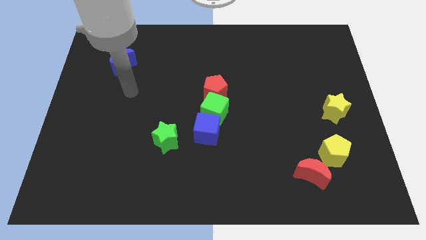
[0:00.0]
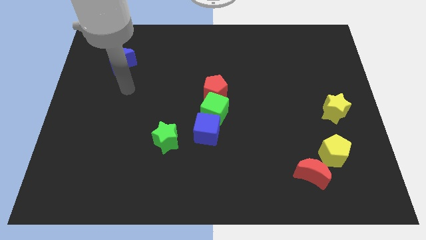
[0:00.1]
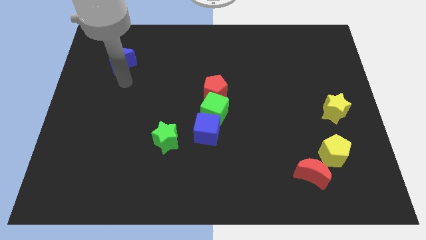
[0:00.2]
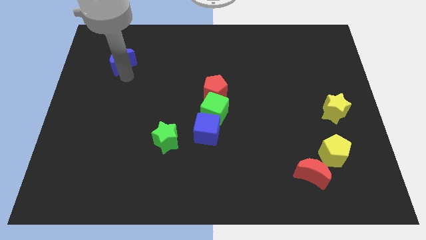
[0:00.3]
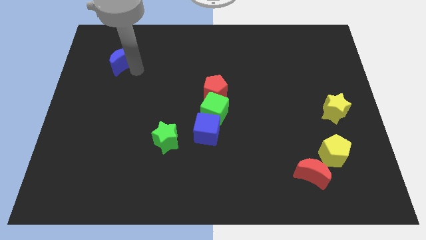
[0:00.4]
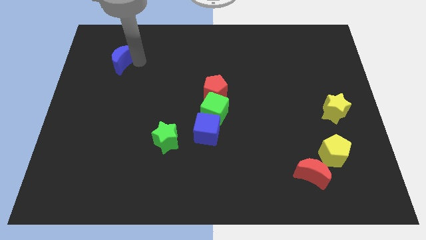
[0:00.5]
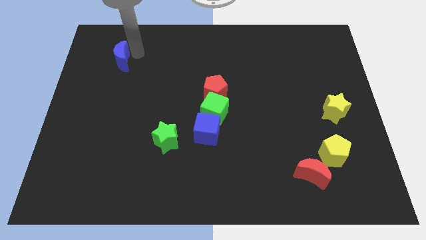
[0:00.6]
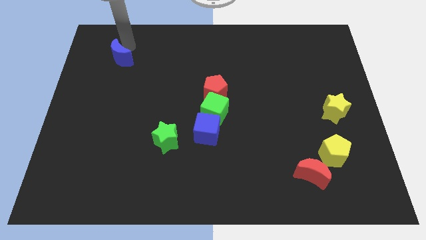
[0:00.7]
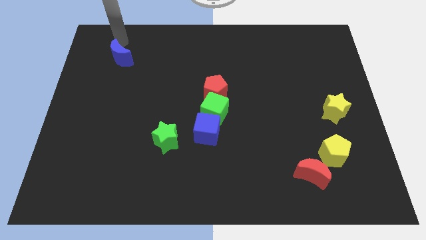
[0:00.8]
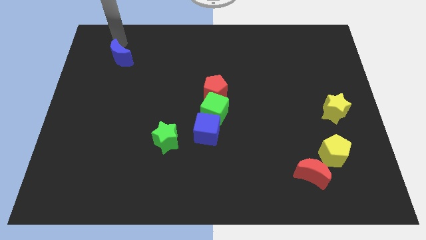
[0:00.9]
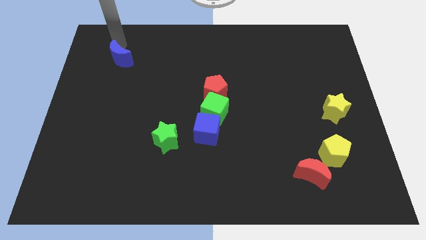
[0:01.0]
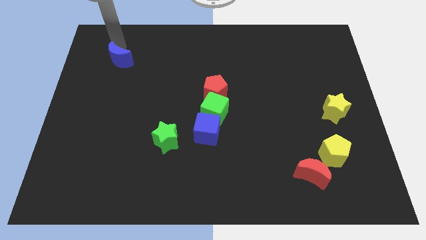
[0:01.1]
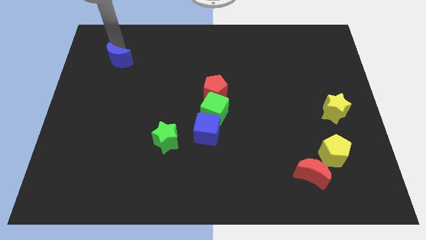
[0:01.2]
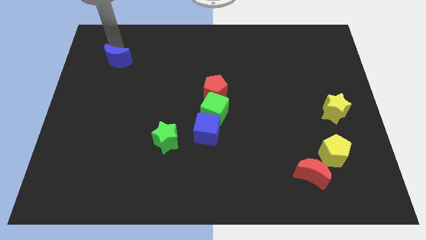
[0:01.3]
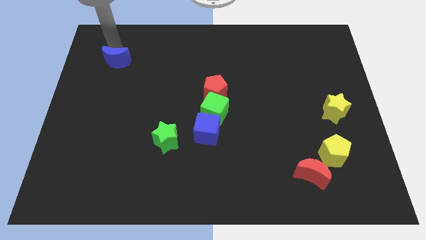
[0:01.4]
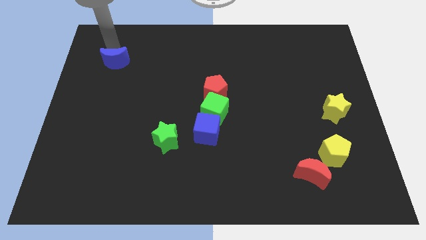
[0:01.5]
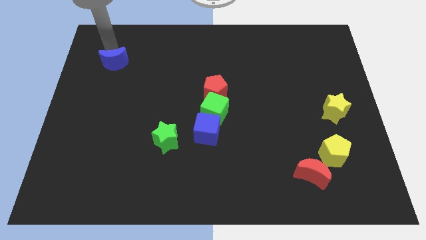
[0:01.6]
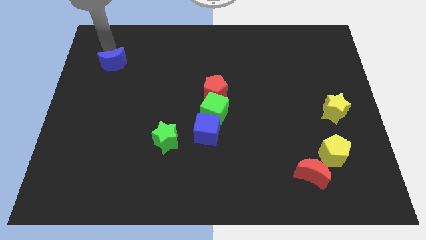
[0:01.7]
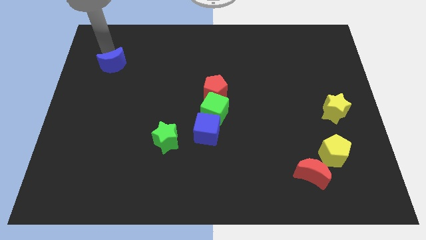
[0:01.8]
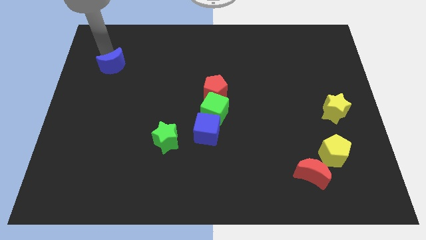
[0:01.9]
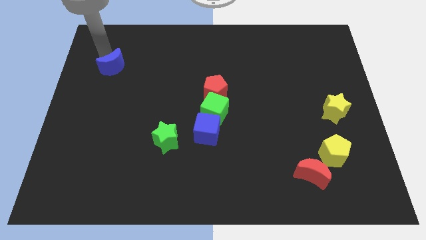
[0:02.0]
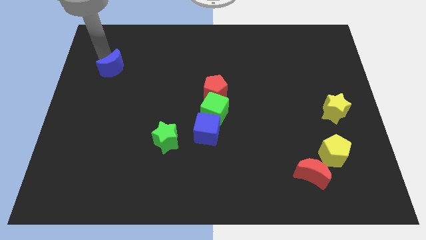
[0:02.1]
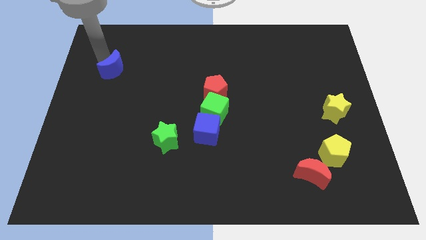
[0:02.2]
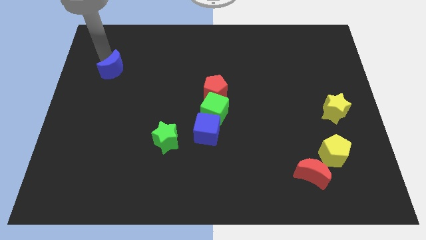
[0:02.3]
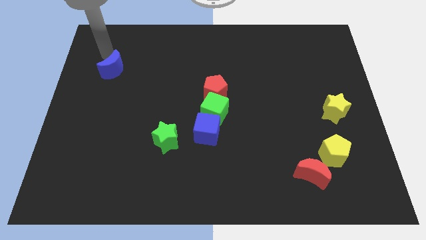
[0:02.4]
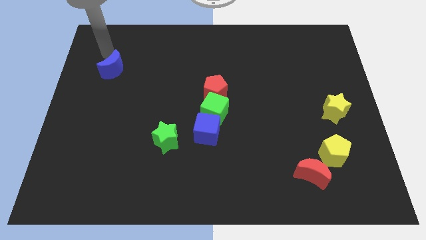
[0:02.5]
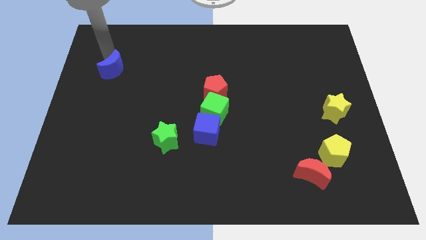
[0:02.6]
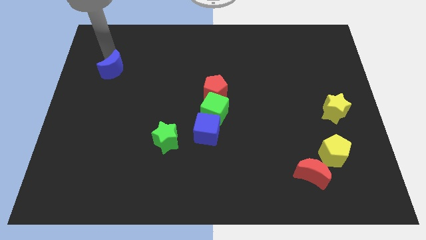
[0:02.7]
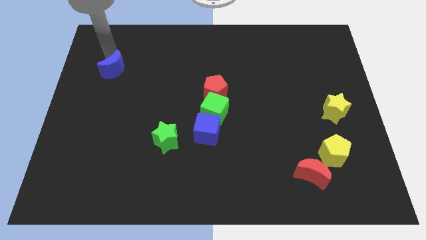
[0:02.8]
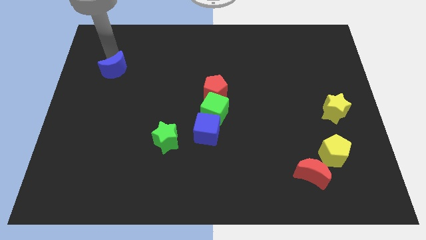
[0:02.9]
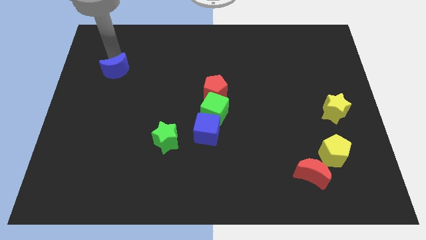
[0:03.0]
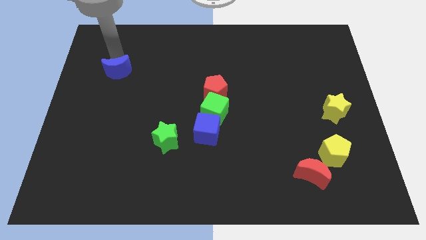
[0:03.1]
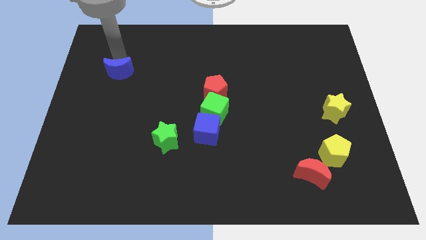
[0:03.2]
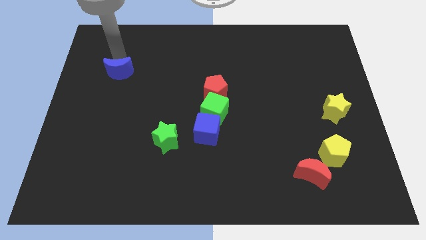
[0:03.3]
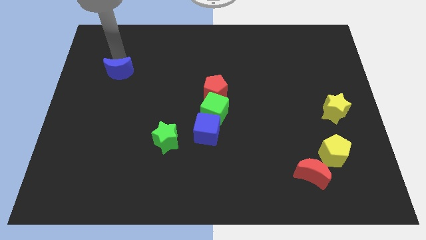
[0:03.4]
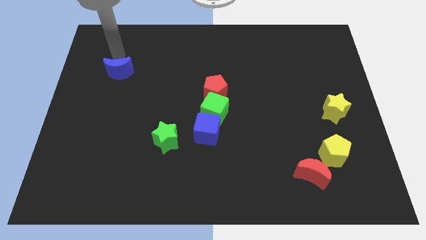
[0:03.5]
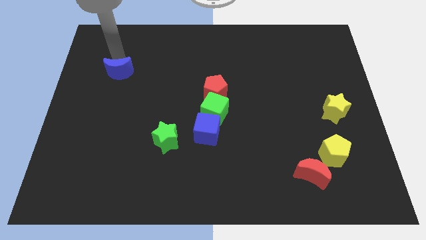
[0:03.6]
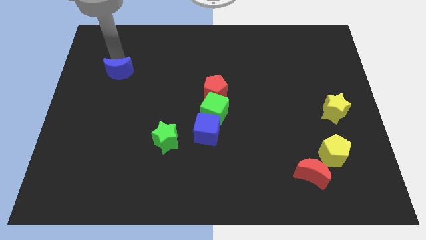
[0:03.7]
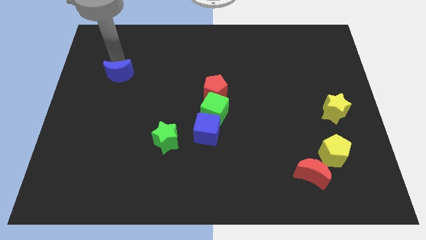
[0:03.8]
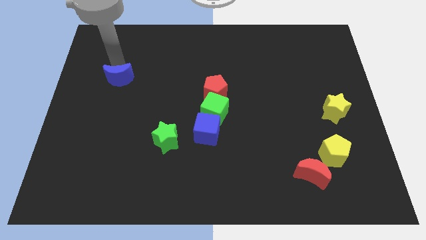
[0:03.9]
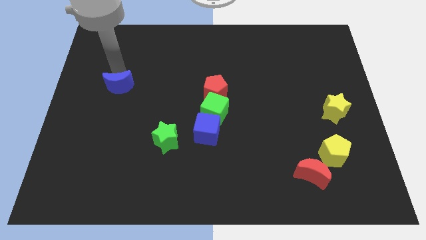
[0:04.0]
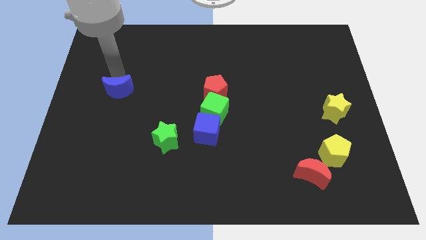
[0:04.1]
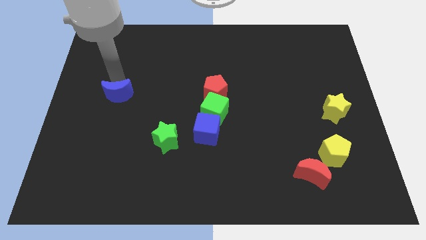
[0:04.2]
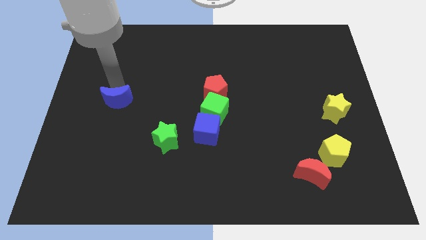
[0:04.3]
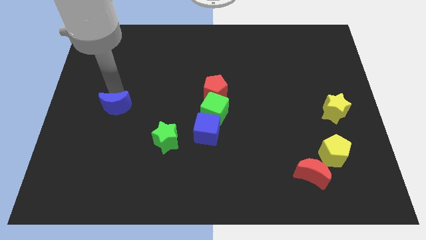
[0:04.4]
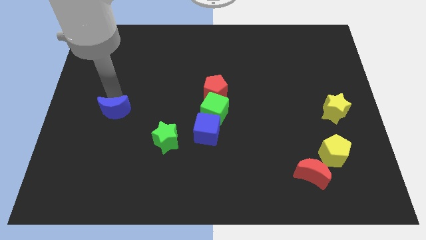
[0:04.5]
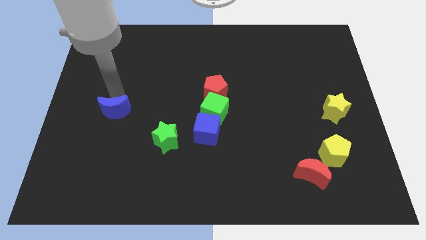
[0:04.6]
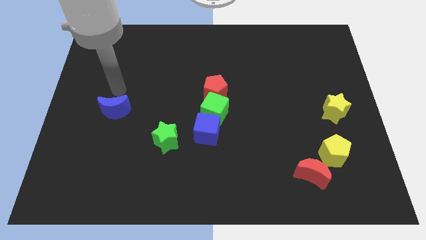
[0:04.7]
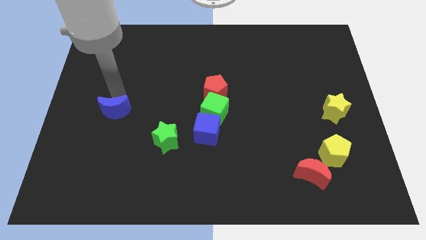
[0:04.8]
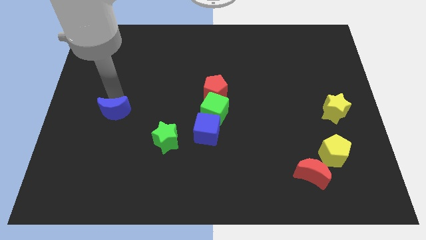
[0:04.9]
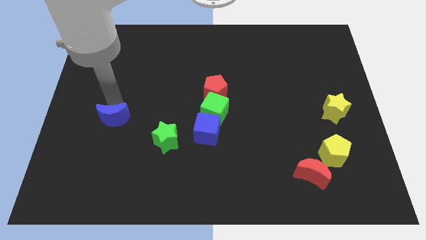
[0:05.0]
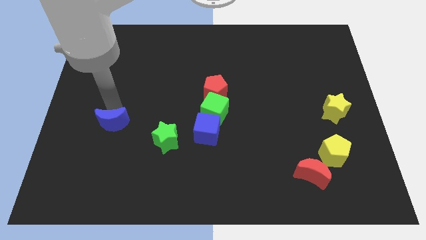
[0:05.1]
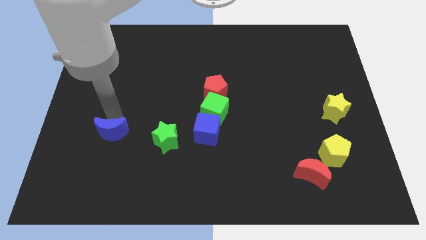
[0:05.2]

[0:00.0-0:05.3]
slide the blue moon downwards

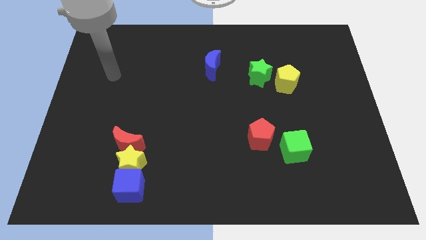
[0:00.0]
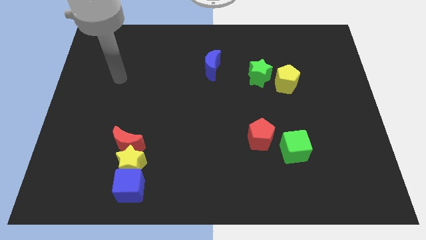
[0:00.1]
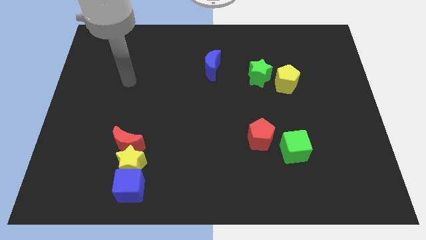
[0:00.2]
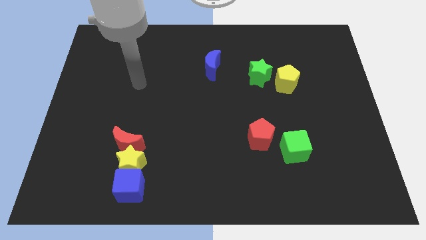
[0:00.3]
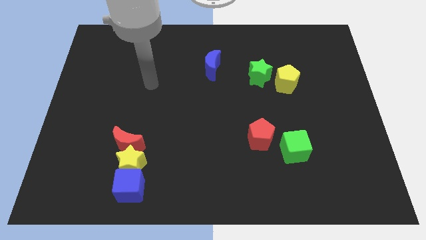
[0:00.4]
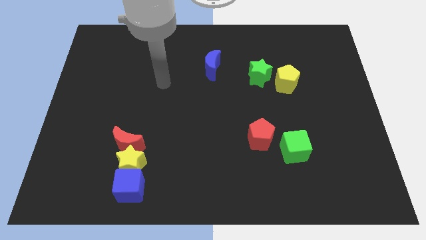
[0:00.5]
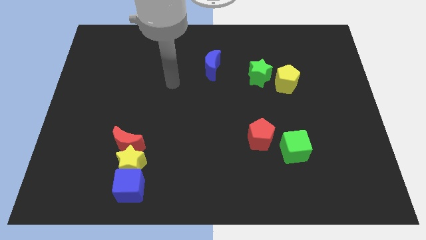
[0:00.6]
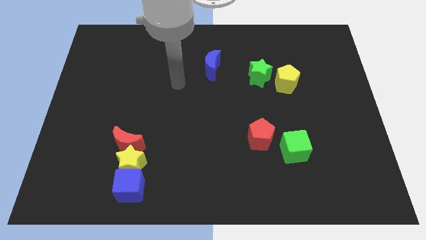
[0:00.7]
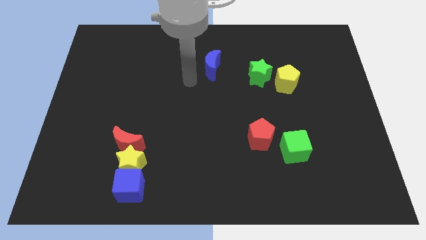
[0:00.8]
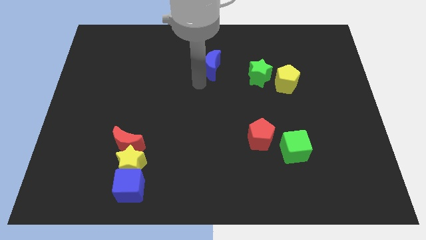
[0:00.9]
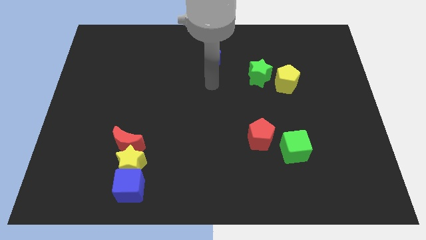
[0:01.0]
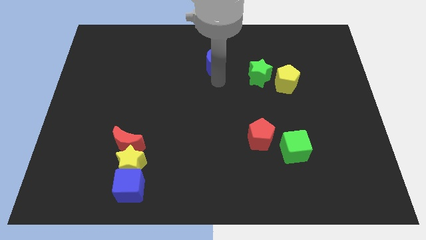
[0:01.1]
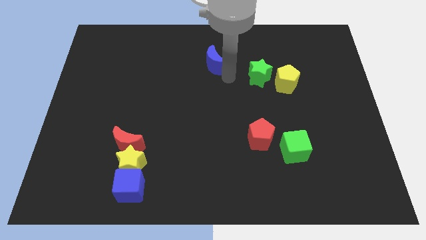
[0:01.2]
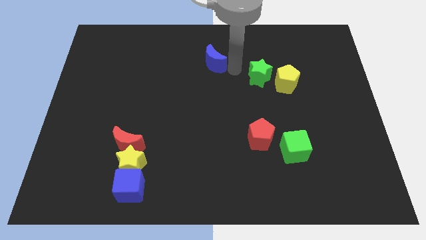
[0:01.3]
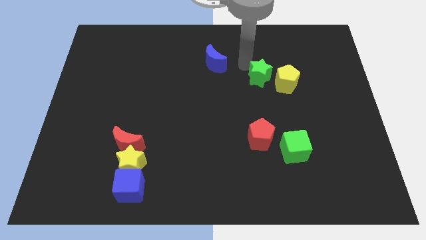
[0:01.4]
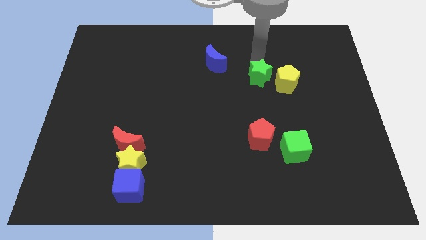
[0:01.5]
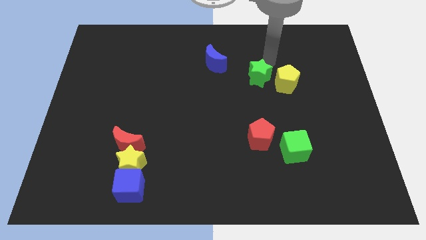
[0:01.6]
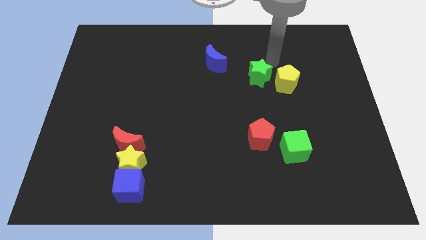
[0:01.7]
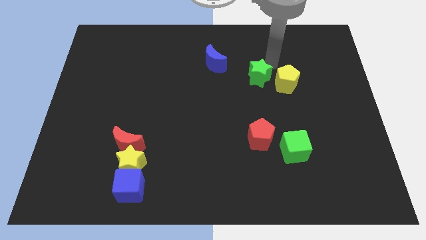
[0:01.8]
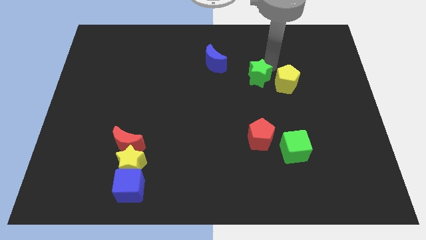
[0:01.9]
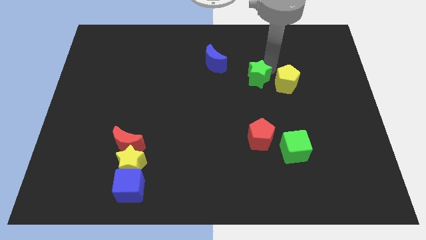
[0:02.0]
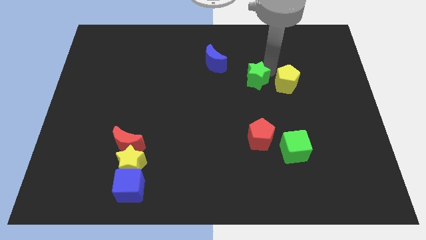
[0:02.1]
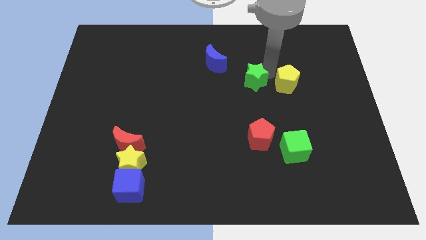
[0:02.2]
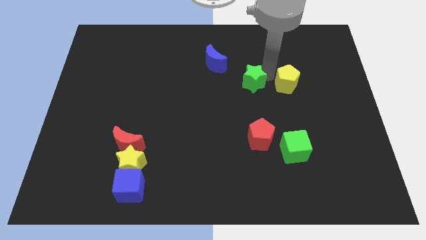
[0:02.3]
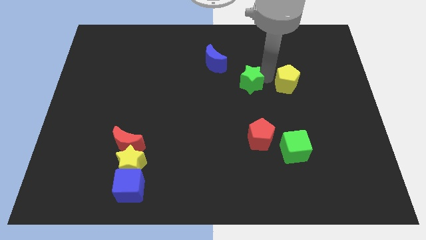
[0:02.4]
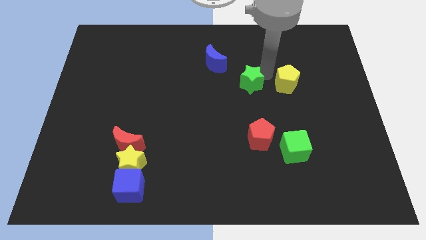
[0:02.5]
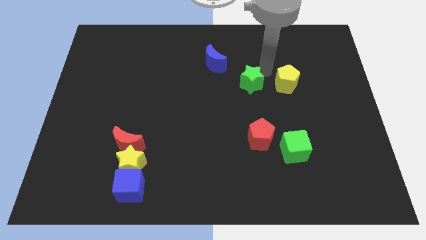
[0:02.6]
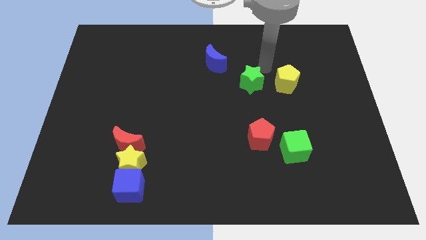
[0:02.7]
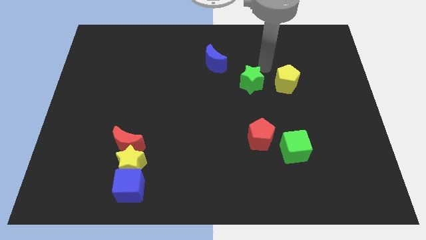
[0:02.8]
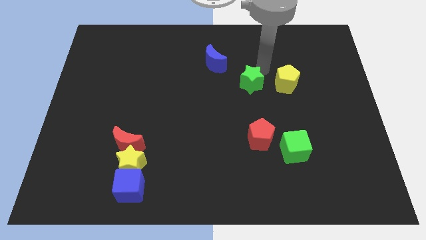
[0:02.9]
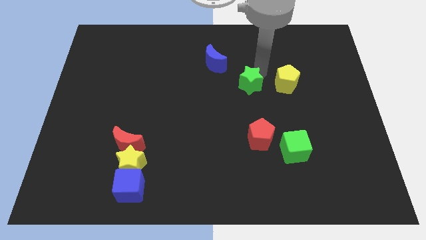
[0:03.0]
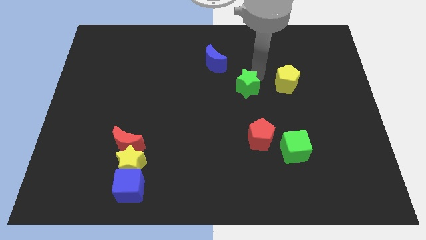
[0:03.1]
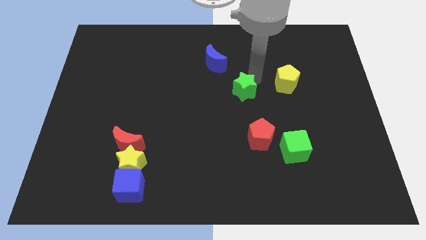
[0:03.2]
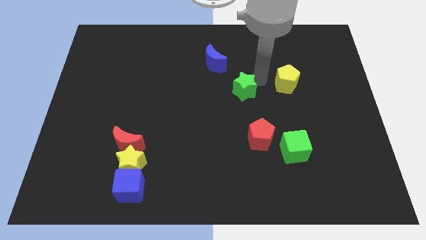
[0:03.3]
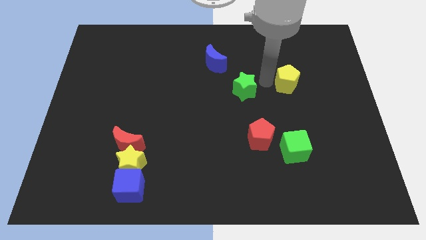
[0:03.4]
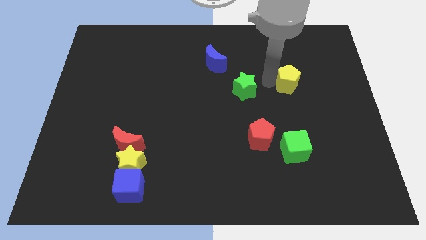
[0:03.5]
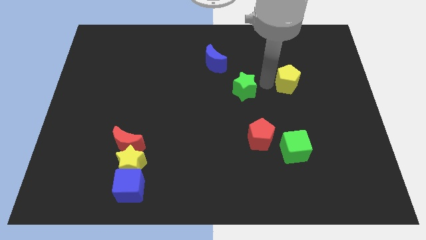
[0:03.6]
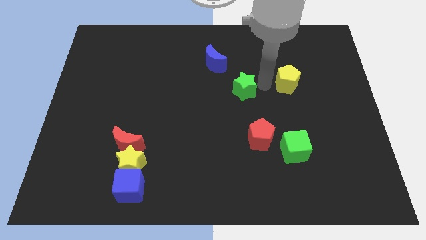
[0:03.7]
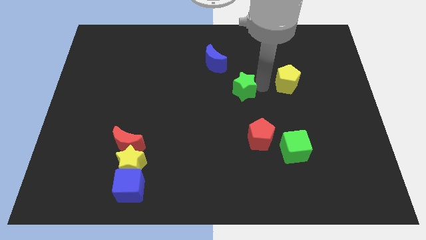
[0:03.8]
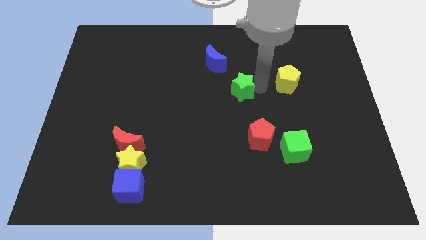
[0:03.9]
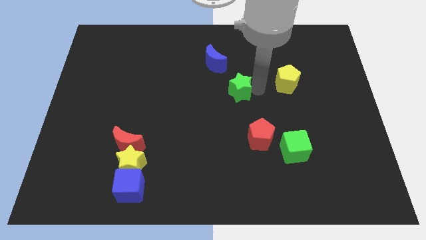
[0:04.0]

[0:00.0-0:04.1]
slightly slide the green star down and to the left diagonally
